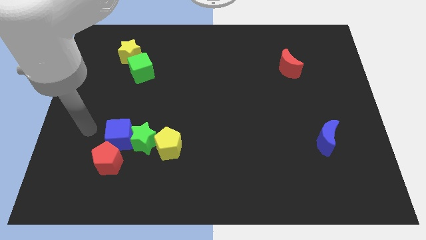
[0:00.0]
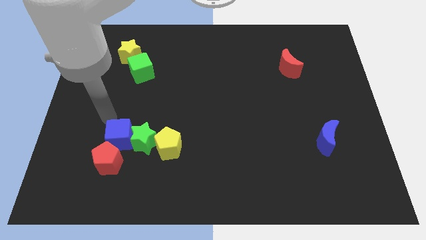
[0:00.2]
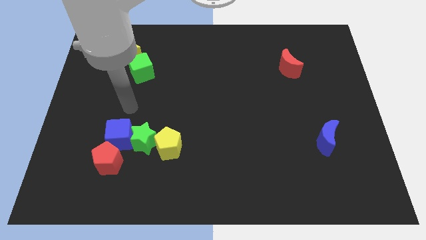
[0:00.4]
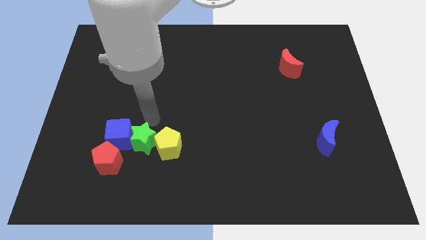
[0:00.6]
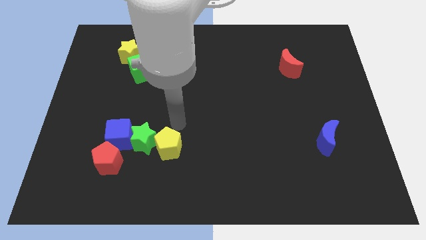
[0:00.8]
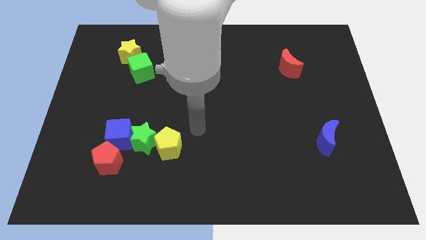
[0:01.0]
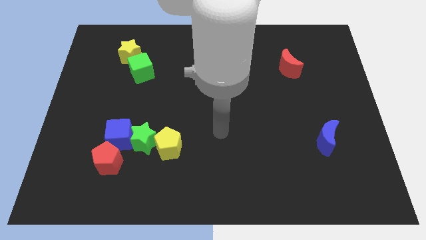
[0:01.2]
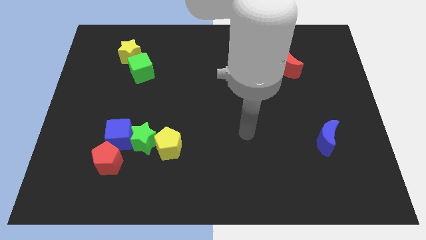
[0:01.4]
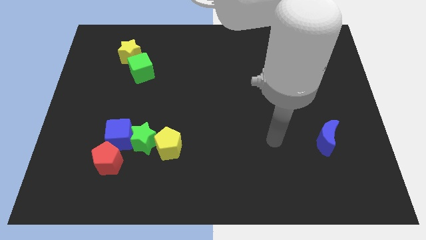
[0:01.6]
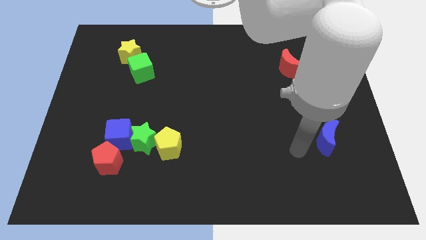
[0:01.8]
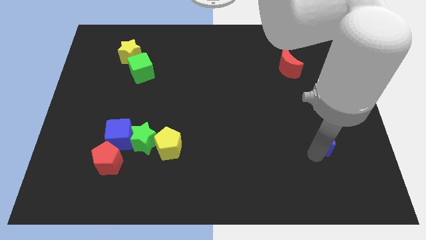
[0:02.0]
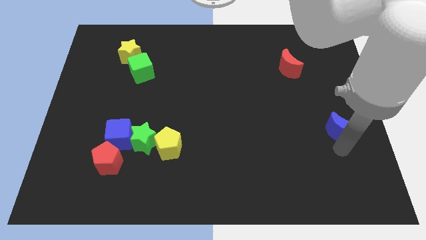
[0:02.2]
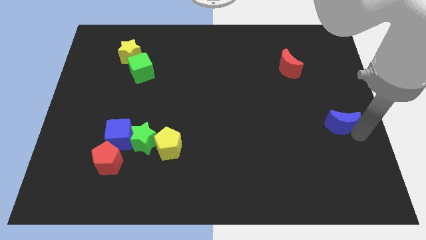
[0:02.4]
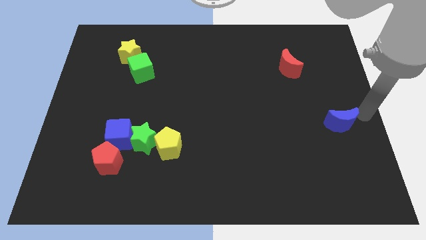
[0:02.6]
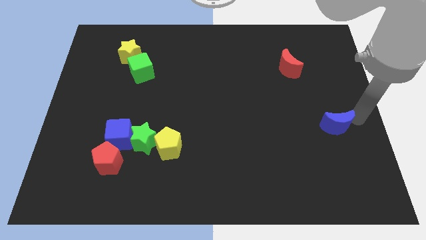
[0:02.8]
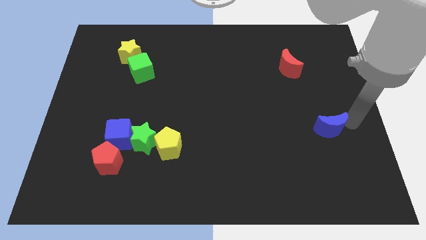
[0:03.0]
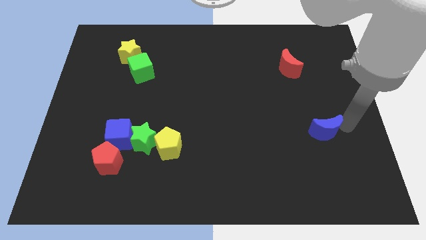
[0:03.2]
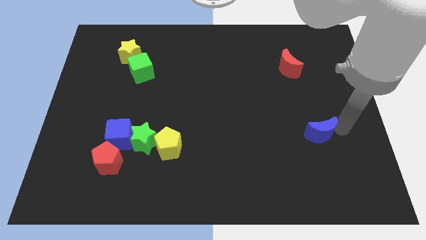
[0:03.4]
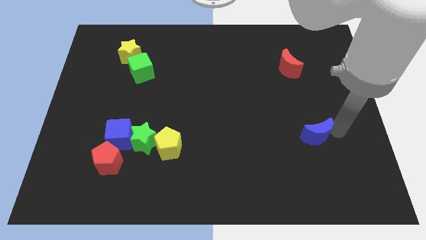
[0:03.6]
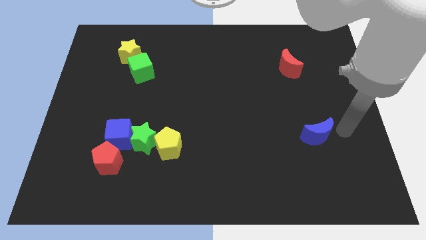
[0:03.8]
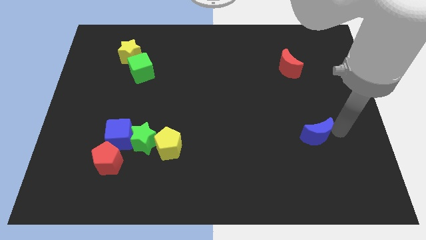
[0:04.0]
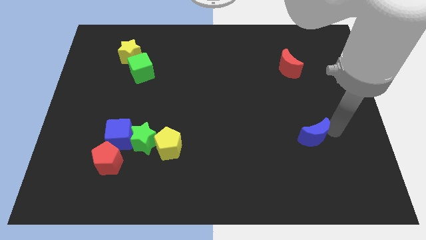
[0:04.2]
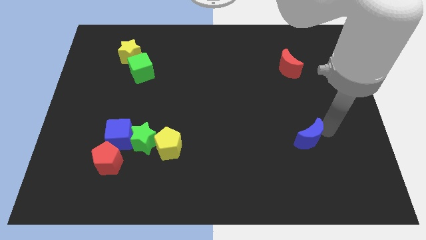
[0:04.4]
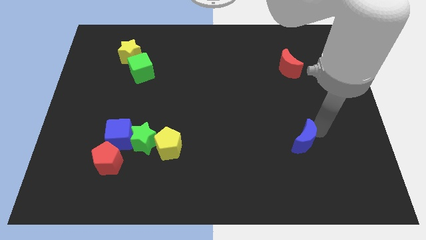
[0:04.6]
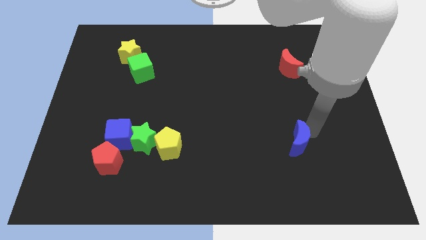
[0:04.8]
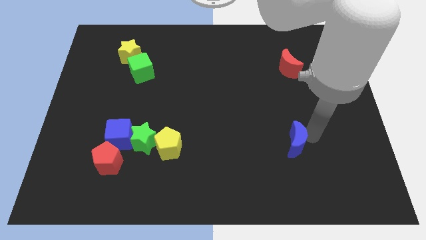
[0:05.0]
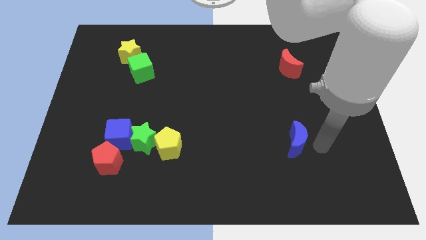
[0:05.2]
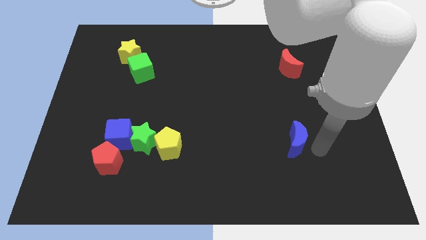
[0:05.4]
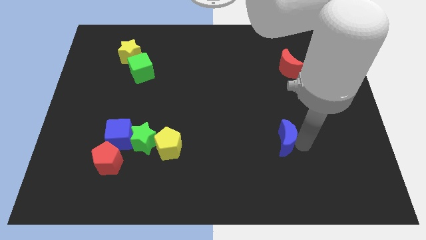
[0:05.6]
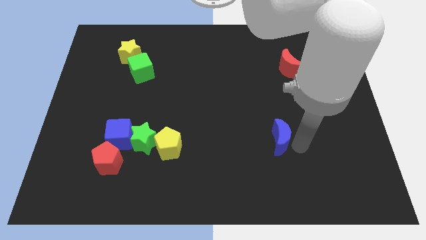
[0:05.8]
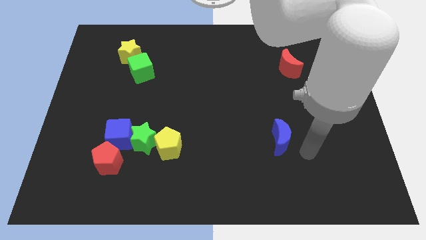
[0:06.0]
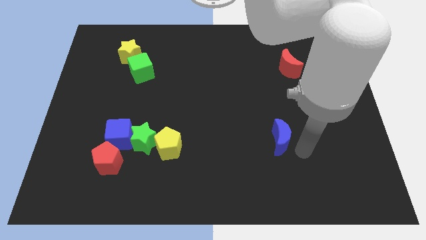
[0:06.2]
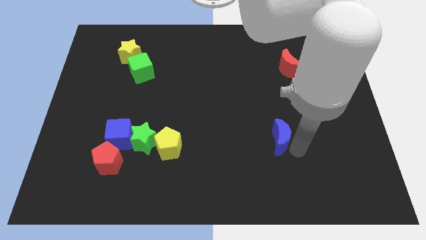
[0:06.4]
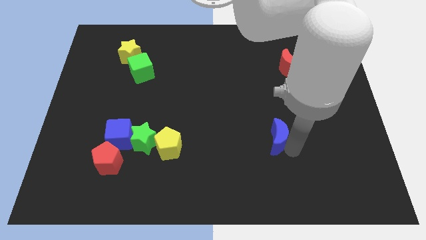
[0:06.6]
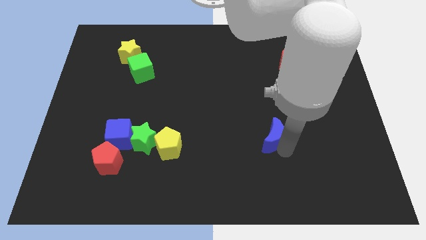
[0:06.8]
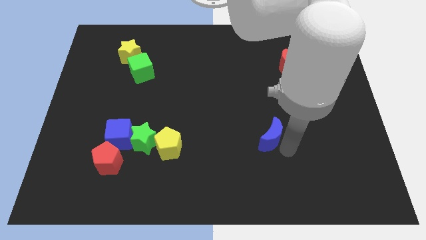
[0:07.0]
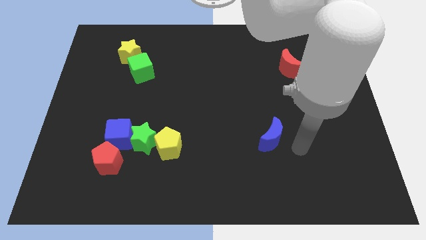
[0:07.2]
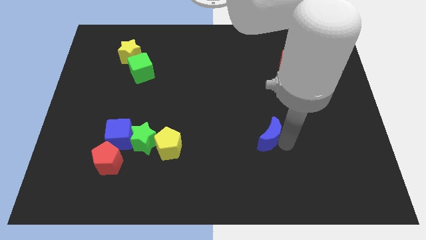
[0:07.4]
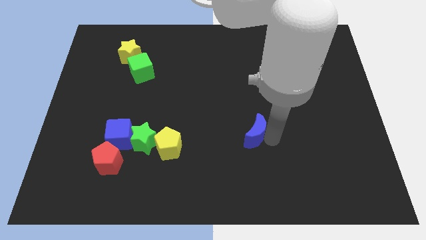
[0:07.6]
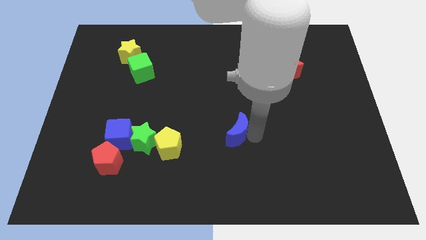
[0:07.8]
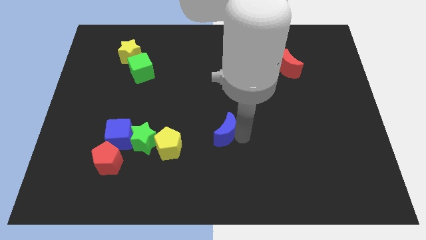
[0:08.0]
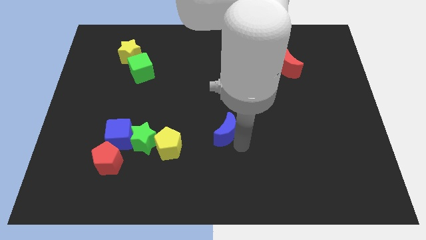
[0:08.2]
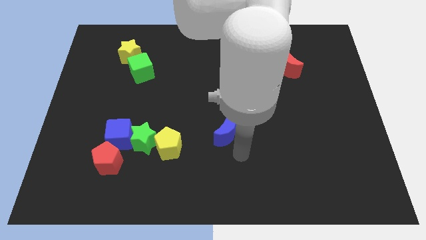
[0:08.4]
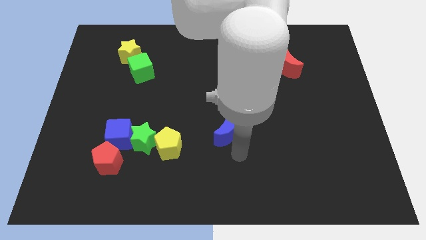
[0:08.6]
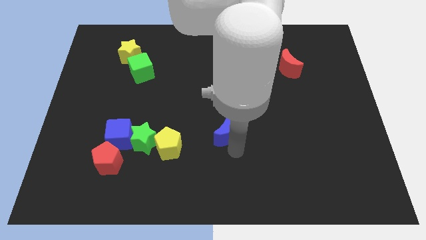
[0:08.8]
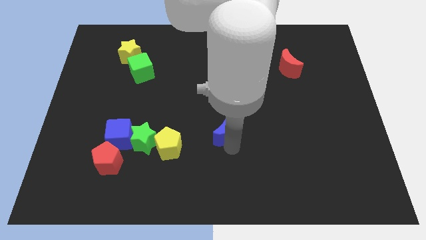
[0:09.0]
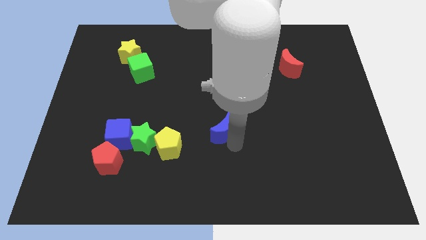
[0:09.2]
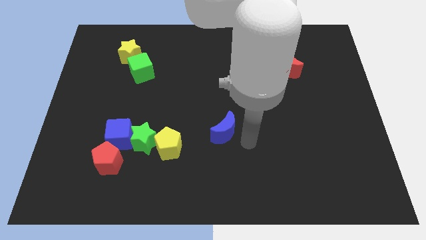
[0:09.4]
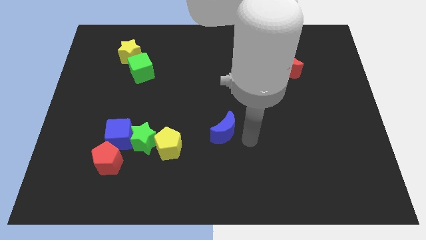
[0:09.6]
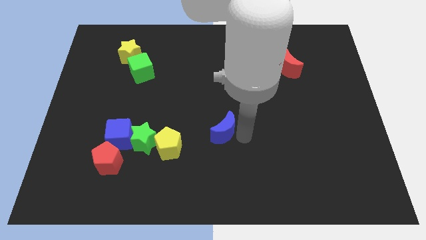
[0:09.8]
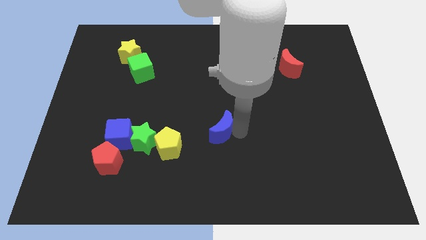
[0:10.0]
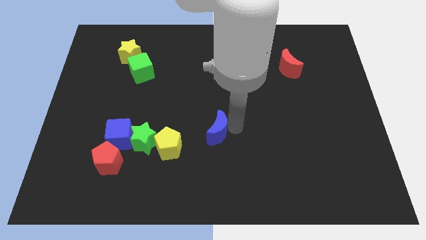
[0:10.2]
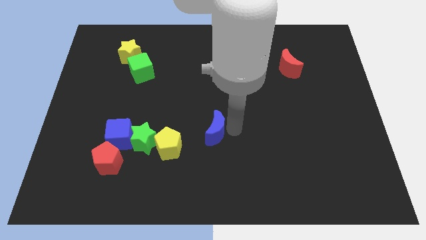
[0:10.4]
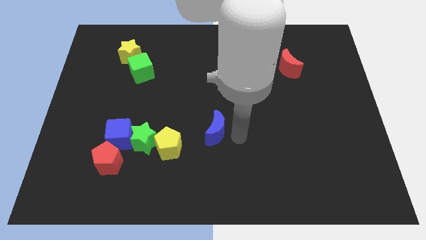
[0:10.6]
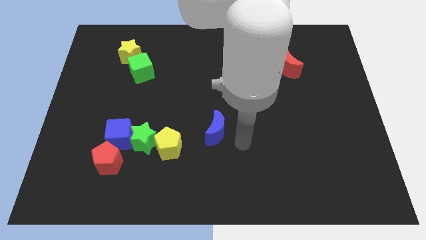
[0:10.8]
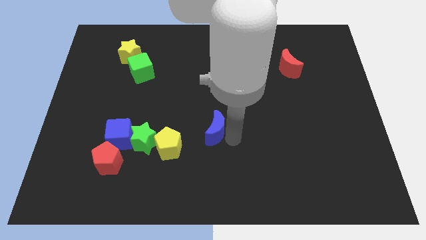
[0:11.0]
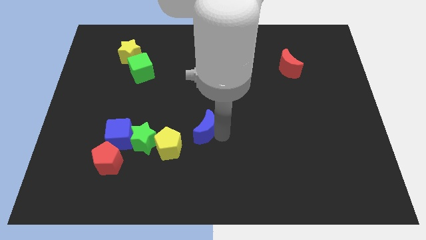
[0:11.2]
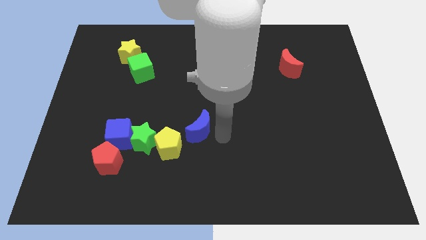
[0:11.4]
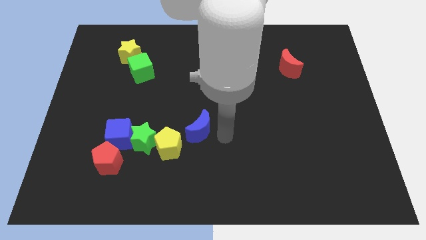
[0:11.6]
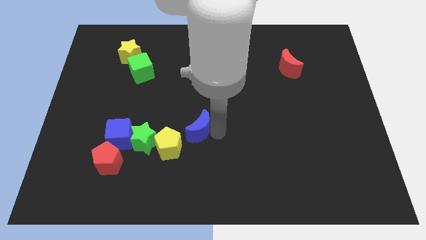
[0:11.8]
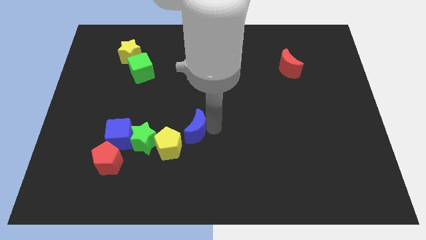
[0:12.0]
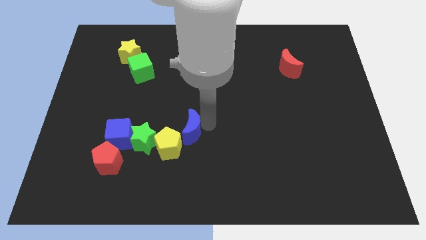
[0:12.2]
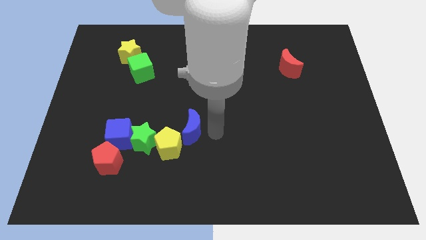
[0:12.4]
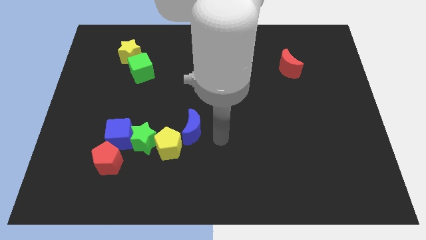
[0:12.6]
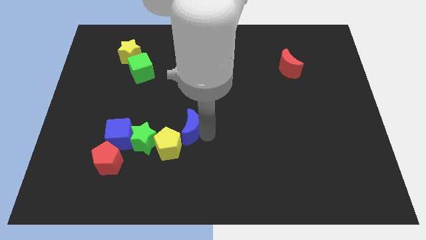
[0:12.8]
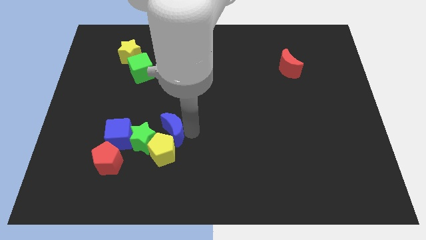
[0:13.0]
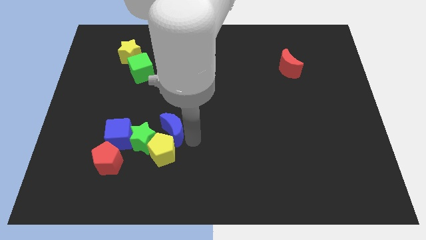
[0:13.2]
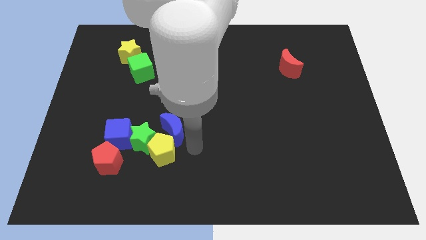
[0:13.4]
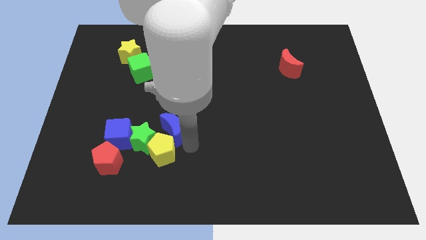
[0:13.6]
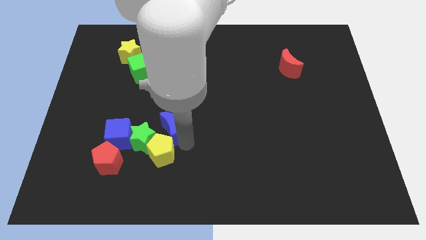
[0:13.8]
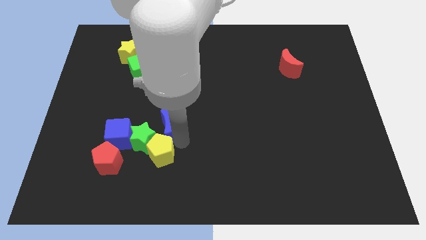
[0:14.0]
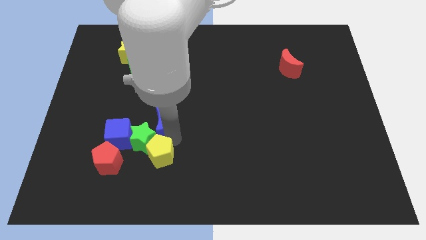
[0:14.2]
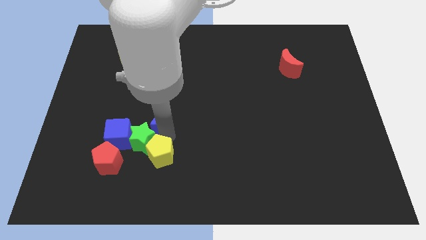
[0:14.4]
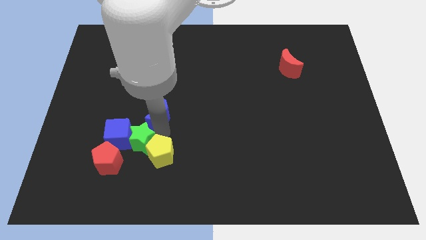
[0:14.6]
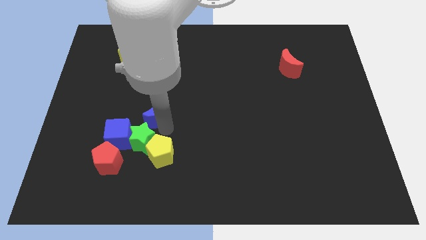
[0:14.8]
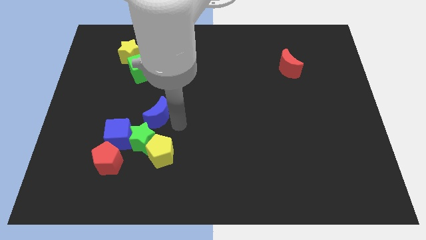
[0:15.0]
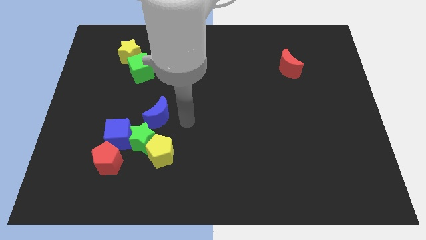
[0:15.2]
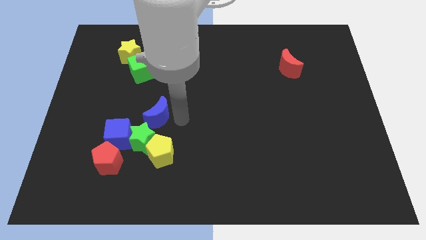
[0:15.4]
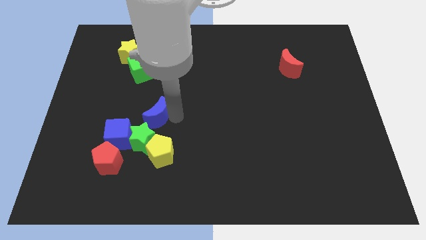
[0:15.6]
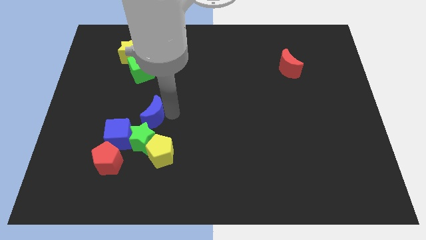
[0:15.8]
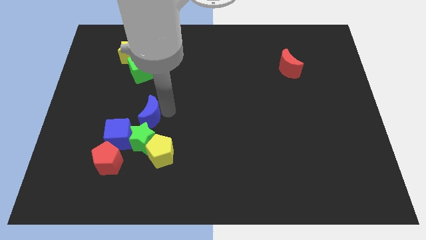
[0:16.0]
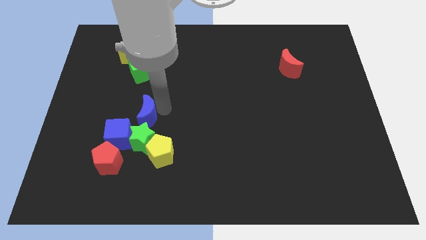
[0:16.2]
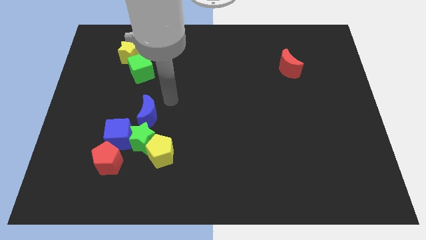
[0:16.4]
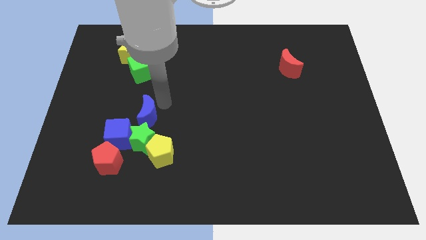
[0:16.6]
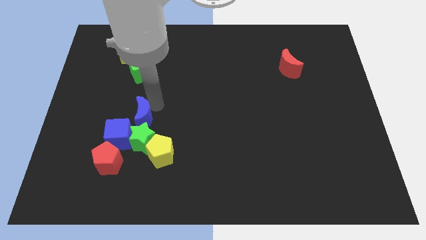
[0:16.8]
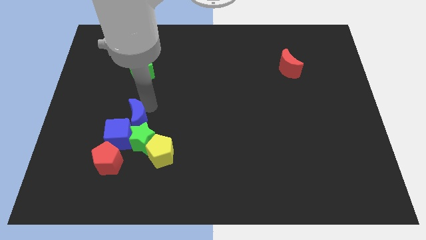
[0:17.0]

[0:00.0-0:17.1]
slide the blue moon towards the blue cube
